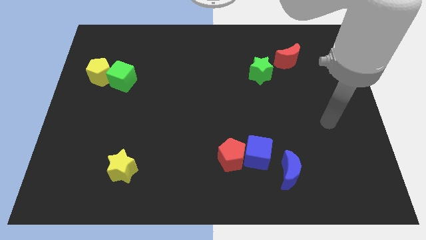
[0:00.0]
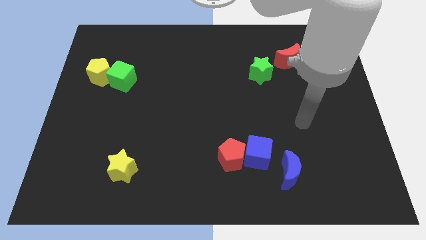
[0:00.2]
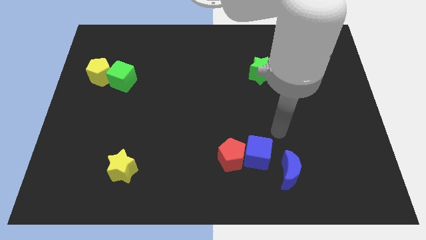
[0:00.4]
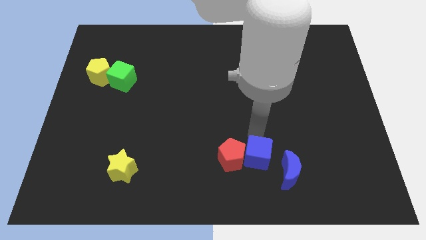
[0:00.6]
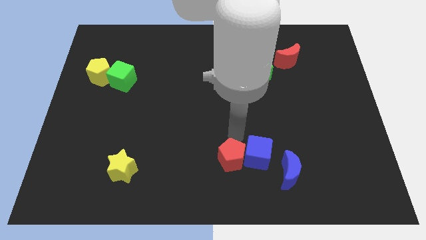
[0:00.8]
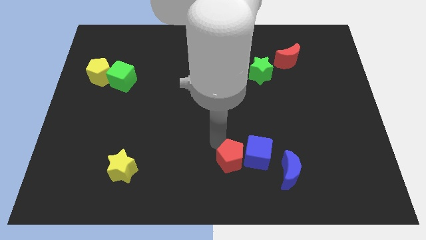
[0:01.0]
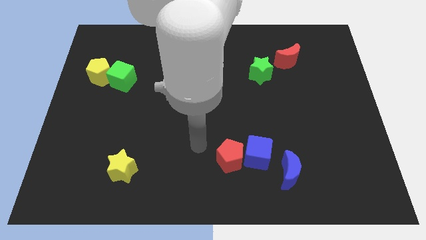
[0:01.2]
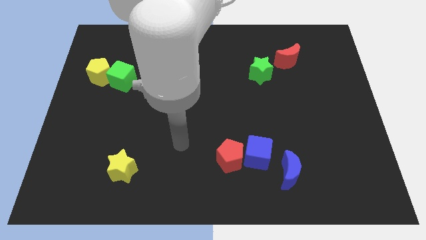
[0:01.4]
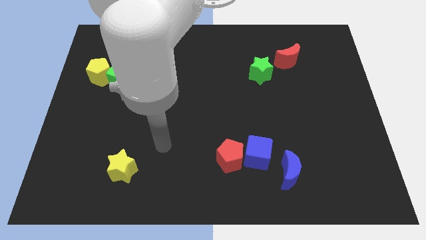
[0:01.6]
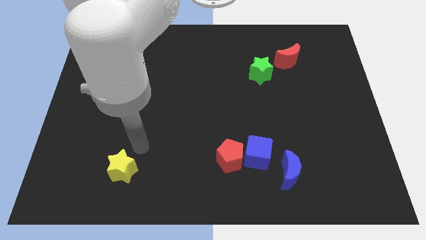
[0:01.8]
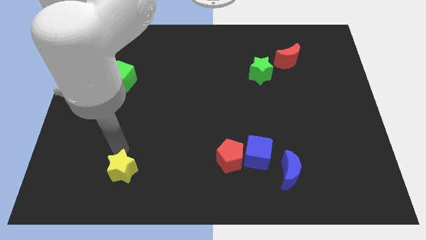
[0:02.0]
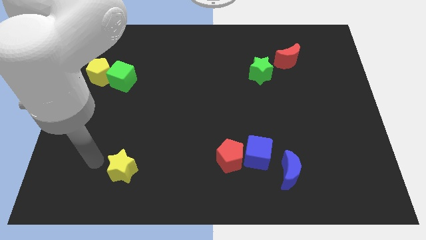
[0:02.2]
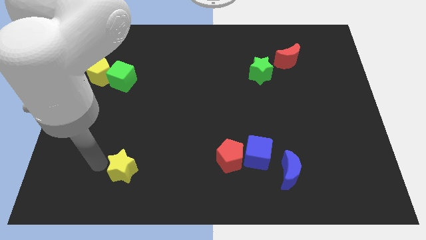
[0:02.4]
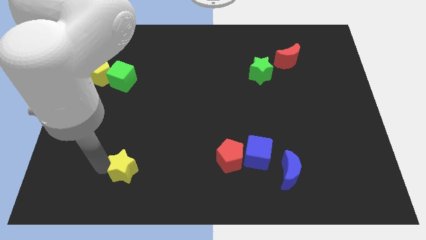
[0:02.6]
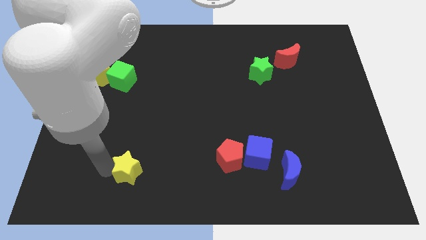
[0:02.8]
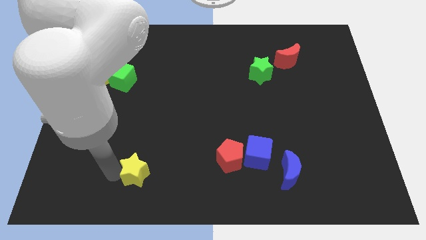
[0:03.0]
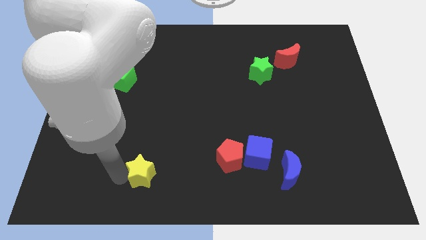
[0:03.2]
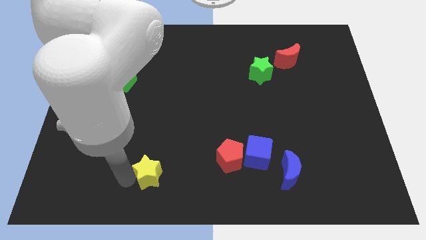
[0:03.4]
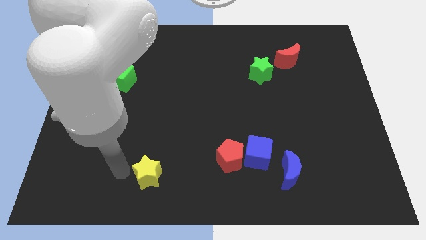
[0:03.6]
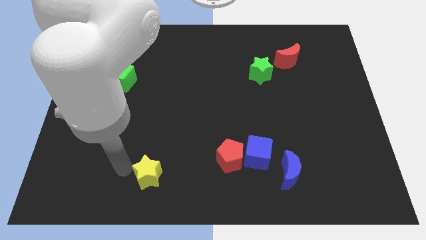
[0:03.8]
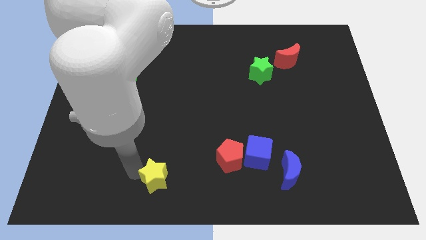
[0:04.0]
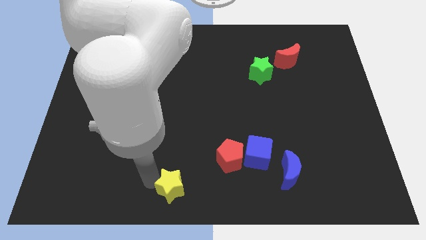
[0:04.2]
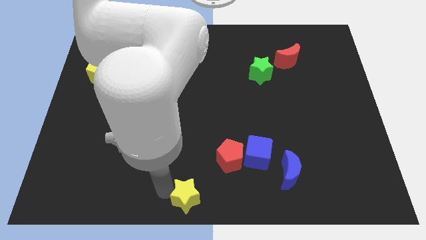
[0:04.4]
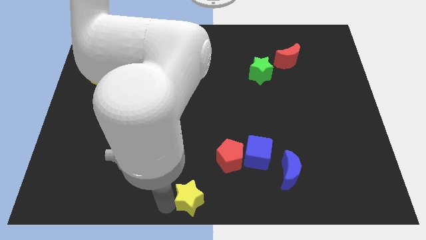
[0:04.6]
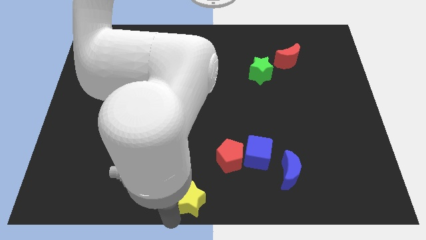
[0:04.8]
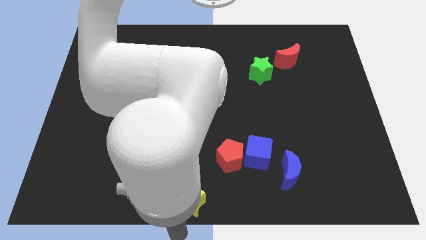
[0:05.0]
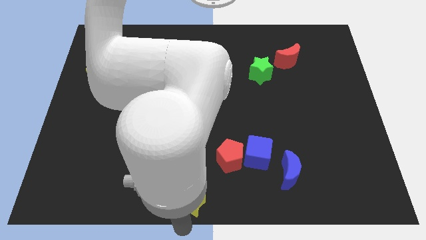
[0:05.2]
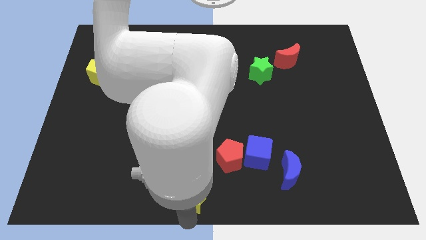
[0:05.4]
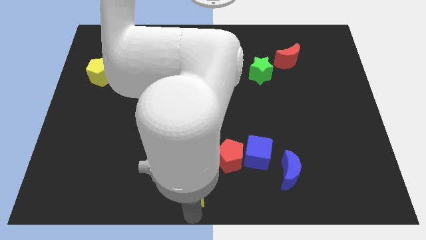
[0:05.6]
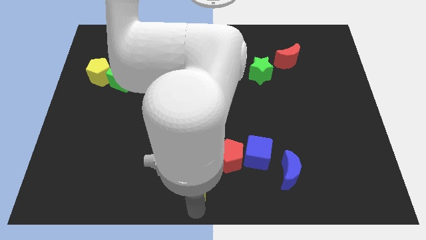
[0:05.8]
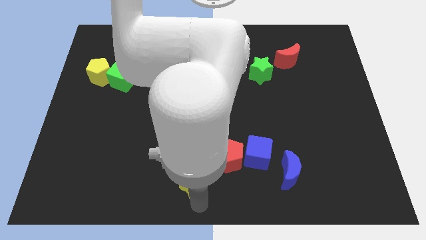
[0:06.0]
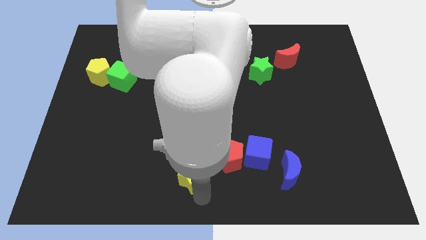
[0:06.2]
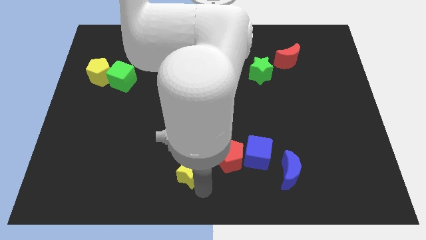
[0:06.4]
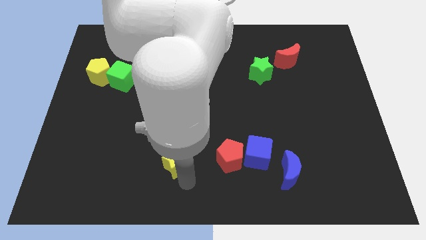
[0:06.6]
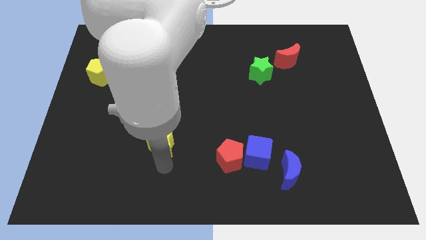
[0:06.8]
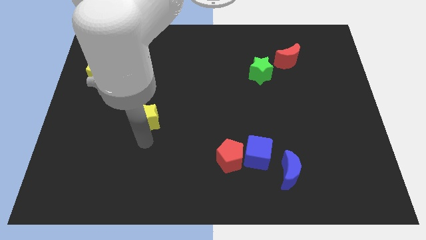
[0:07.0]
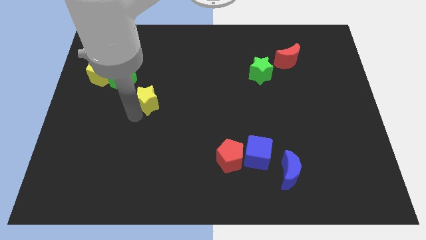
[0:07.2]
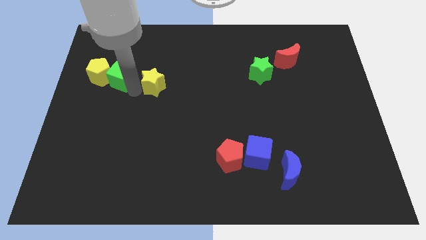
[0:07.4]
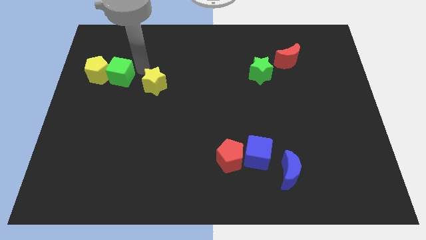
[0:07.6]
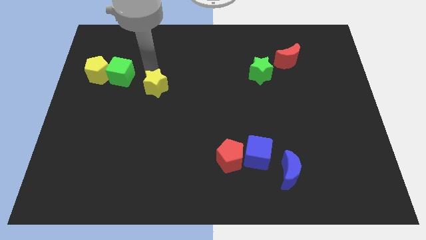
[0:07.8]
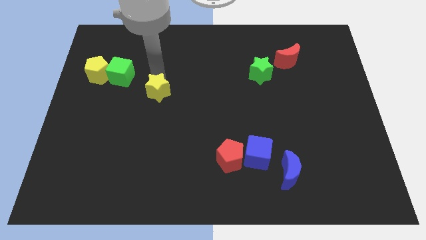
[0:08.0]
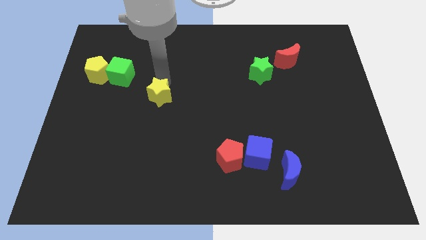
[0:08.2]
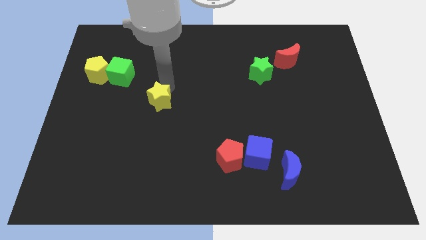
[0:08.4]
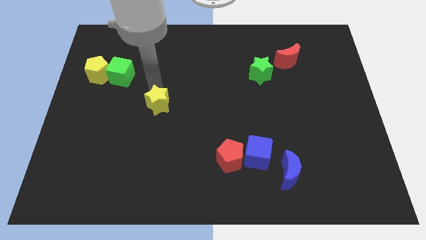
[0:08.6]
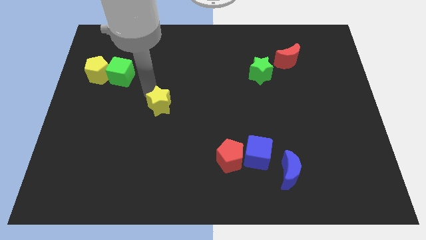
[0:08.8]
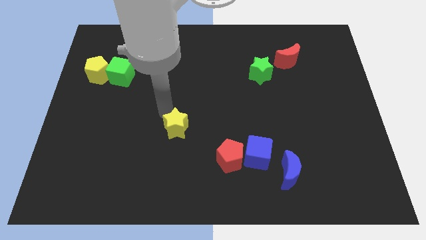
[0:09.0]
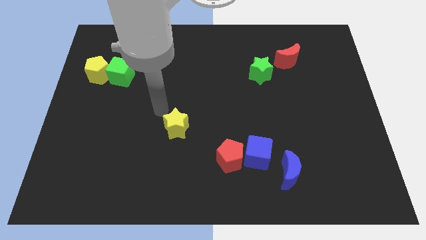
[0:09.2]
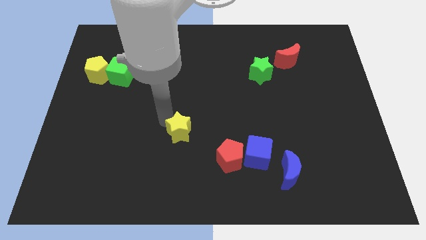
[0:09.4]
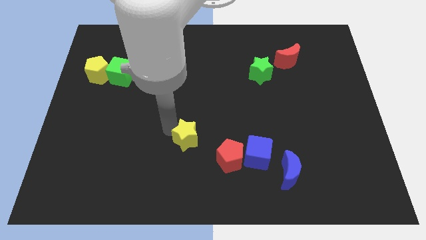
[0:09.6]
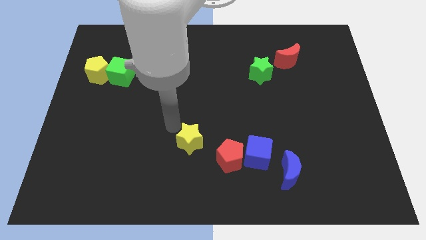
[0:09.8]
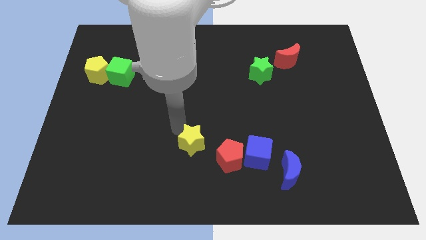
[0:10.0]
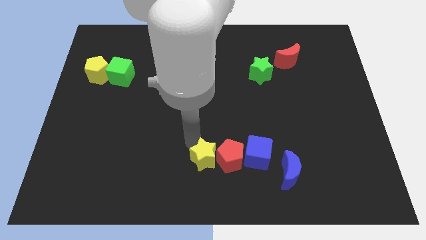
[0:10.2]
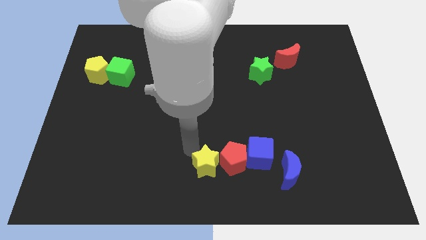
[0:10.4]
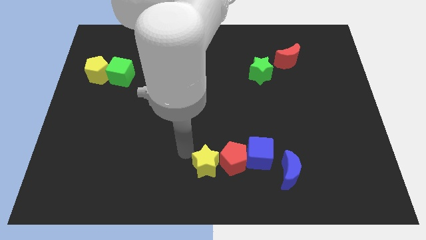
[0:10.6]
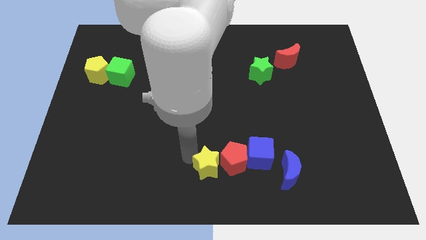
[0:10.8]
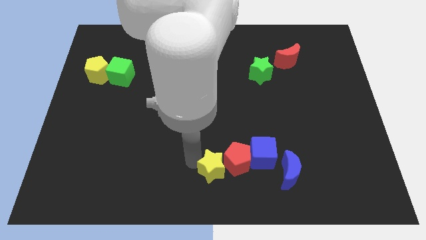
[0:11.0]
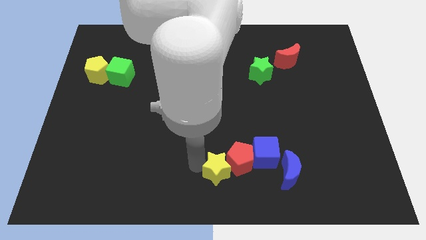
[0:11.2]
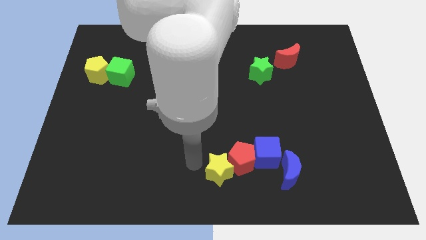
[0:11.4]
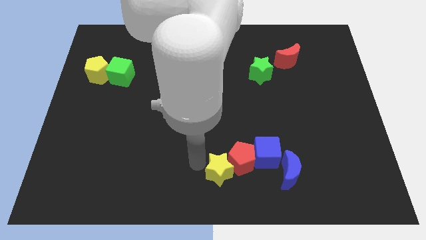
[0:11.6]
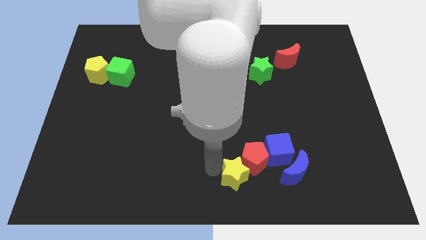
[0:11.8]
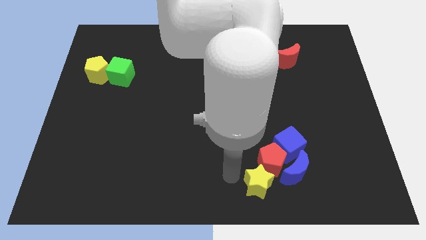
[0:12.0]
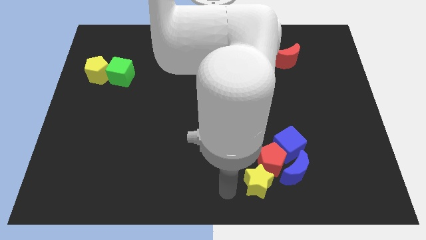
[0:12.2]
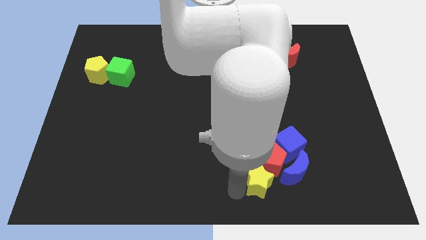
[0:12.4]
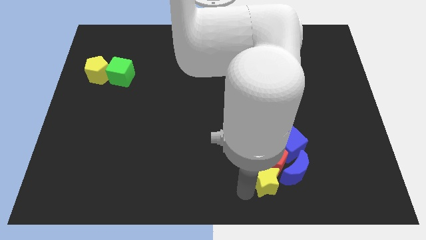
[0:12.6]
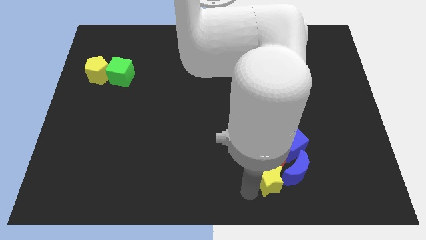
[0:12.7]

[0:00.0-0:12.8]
move the yellow star next to the blue moon

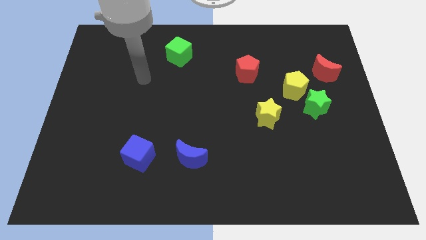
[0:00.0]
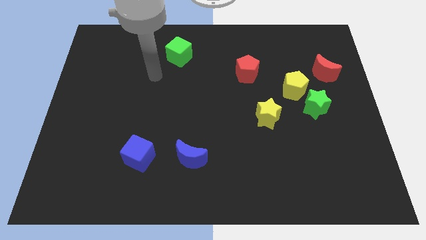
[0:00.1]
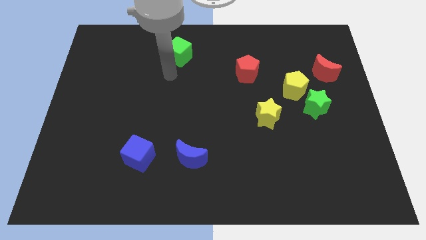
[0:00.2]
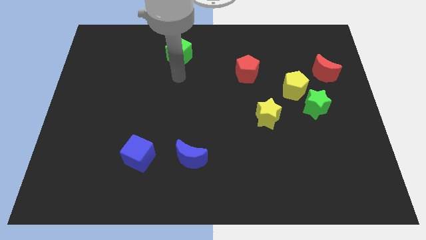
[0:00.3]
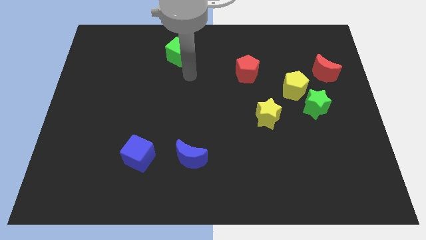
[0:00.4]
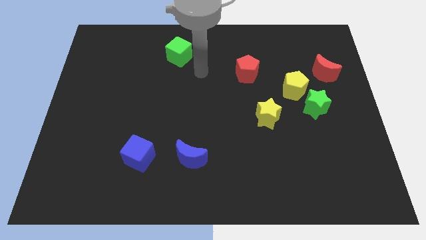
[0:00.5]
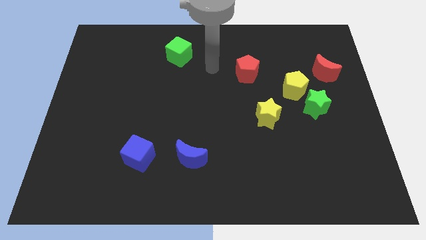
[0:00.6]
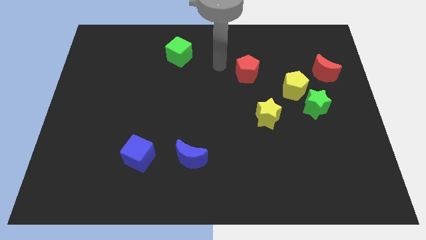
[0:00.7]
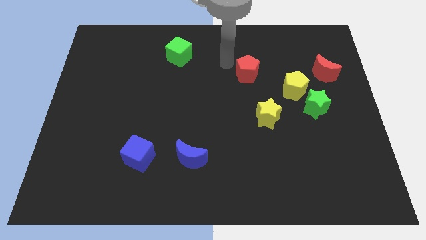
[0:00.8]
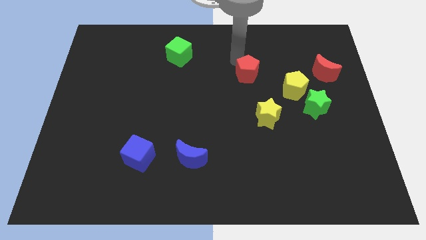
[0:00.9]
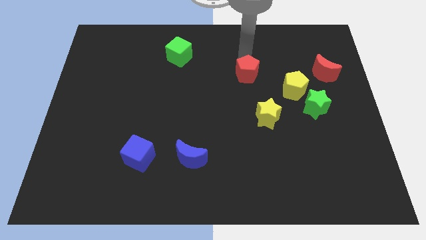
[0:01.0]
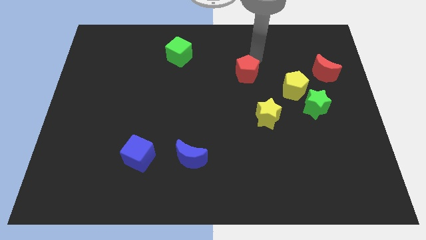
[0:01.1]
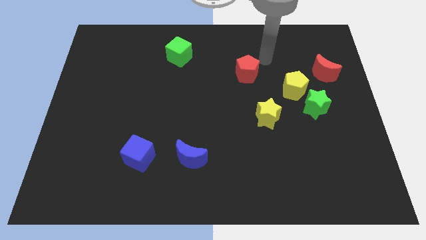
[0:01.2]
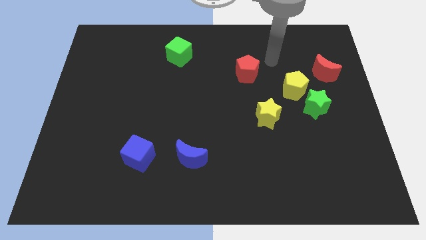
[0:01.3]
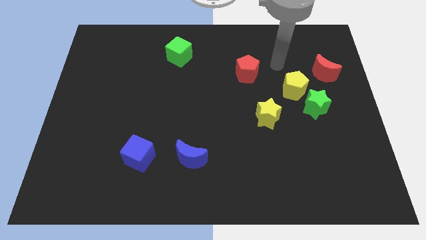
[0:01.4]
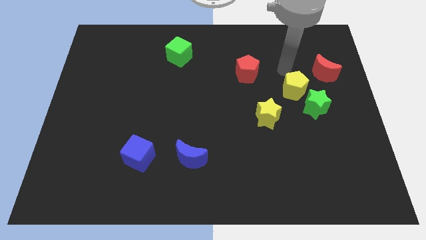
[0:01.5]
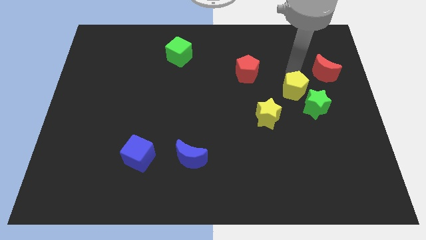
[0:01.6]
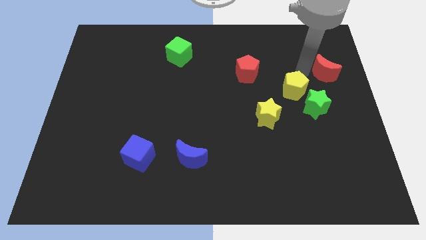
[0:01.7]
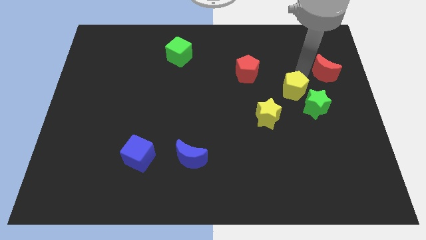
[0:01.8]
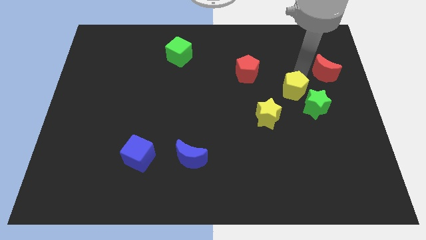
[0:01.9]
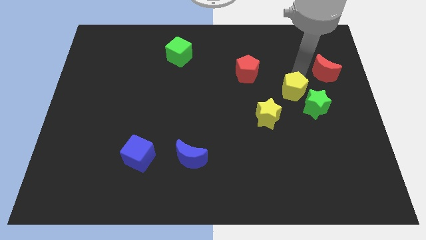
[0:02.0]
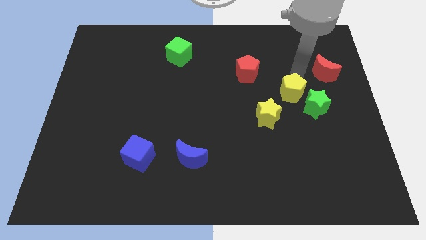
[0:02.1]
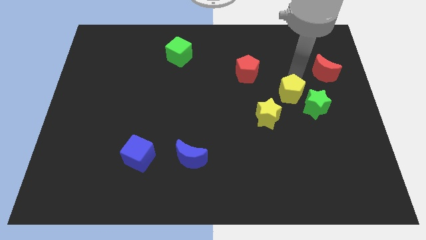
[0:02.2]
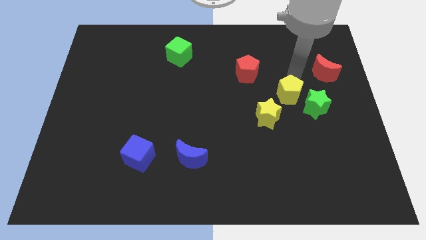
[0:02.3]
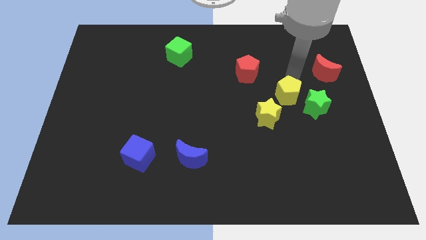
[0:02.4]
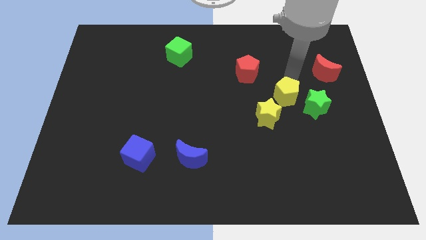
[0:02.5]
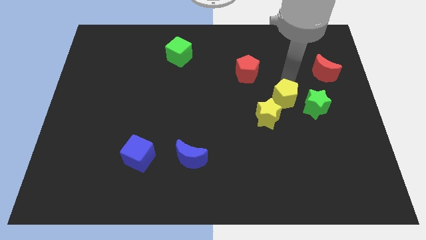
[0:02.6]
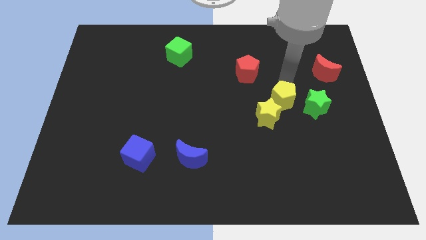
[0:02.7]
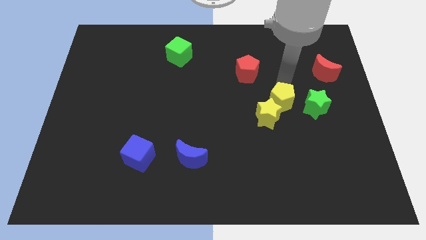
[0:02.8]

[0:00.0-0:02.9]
push the yellow pentagon towards the yellow star
